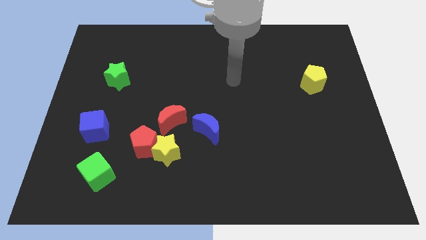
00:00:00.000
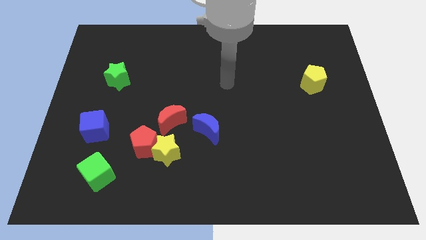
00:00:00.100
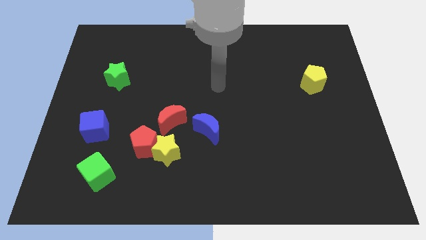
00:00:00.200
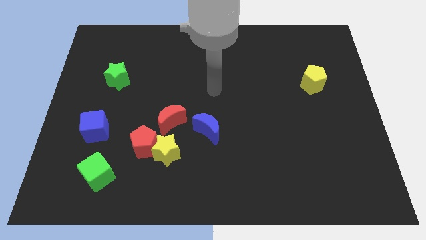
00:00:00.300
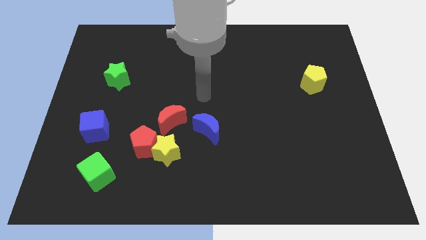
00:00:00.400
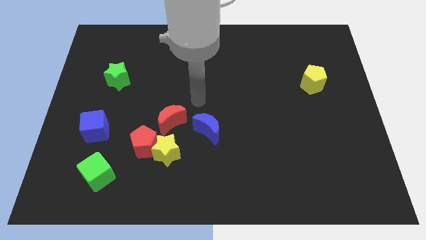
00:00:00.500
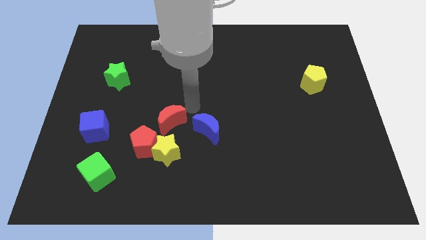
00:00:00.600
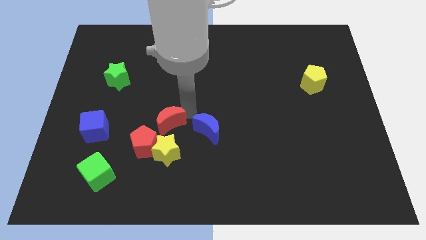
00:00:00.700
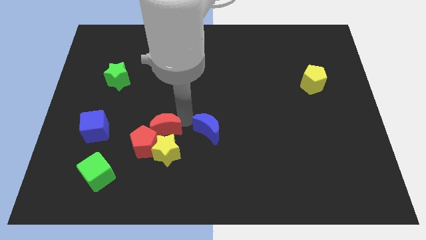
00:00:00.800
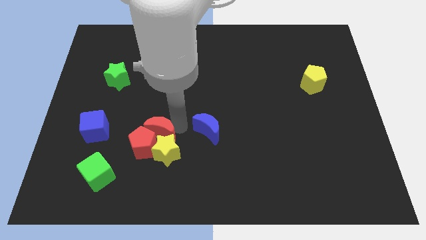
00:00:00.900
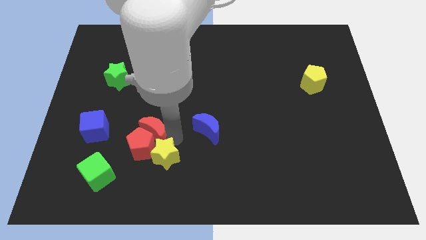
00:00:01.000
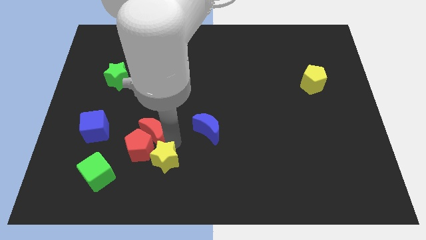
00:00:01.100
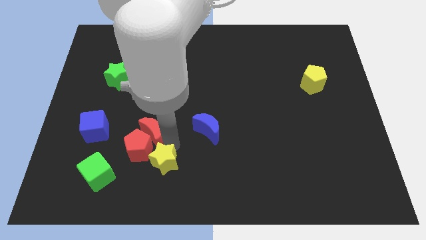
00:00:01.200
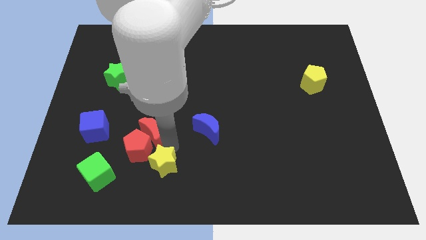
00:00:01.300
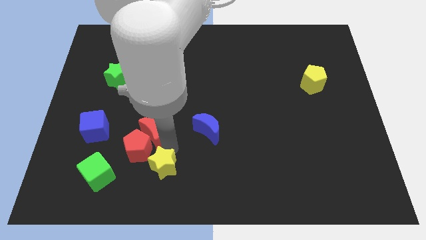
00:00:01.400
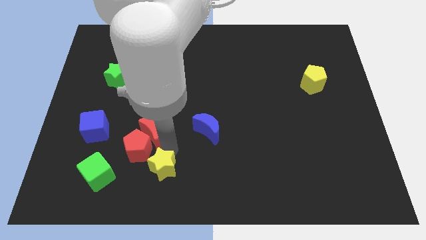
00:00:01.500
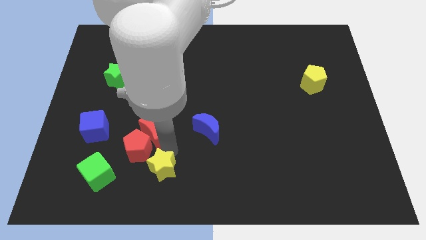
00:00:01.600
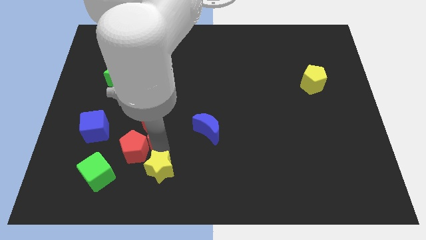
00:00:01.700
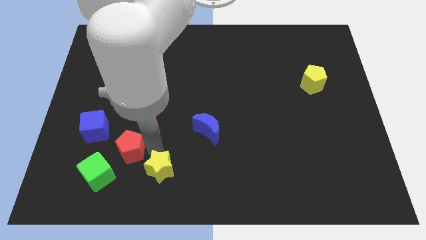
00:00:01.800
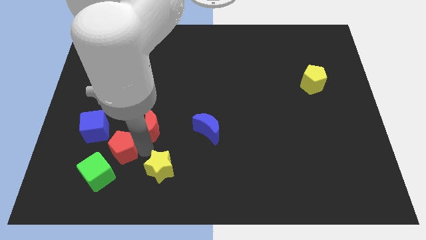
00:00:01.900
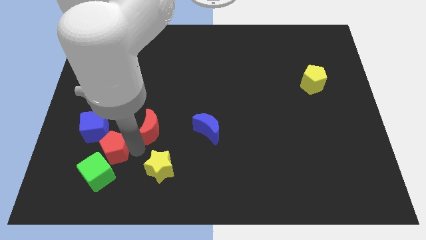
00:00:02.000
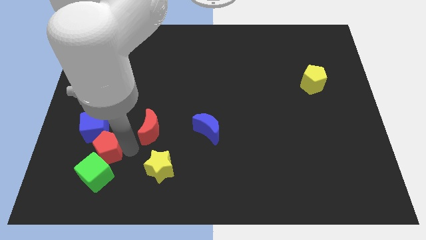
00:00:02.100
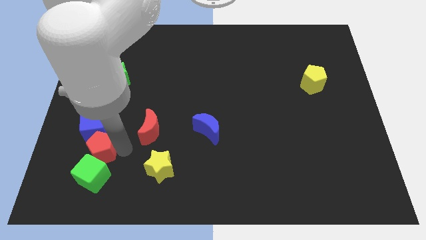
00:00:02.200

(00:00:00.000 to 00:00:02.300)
pull the red pentagon apart from the yellow star and red moon

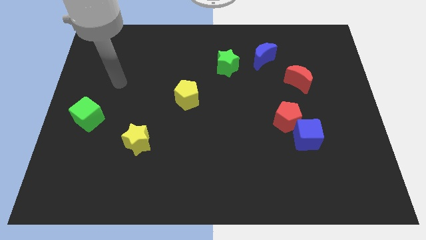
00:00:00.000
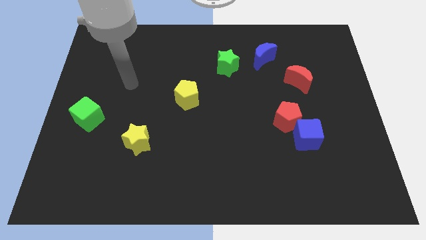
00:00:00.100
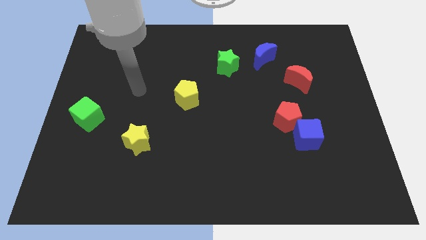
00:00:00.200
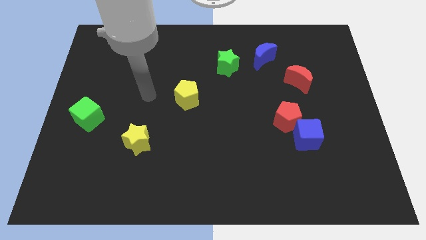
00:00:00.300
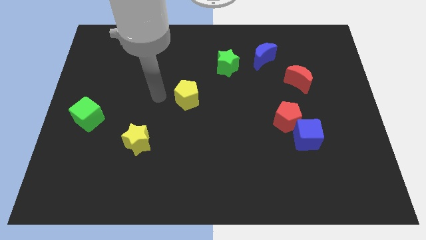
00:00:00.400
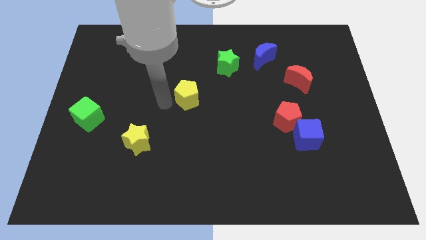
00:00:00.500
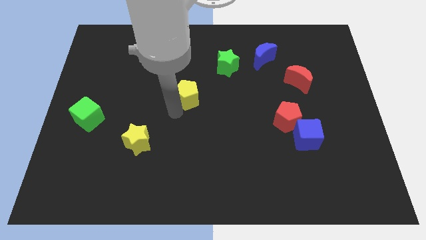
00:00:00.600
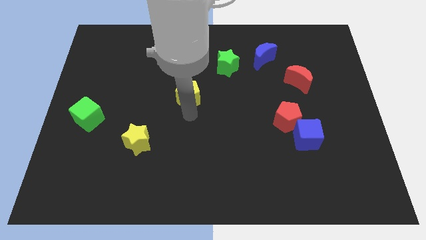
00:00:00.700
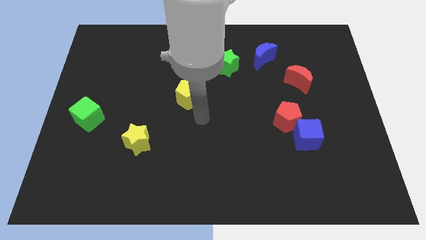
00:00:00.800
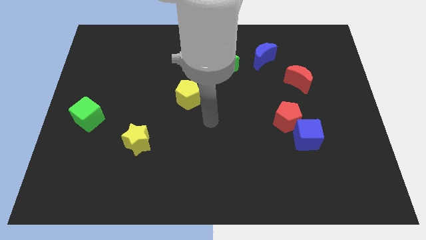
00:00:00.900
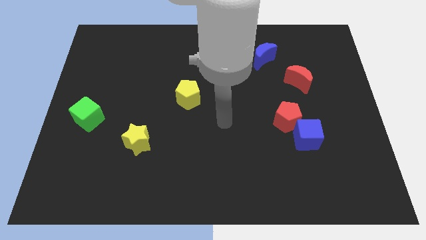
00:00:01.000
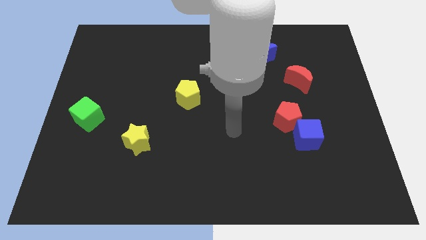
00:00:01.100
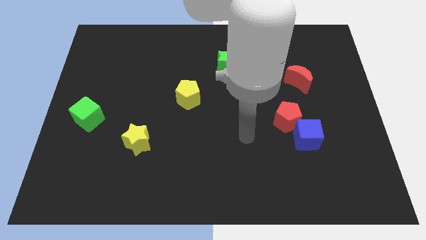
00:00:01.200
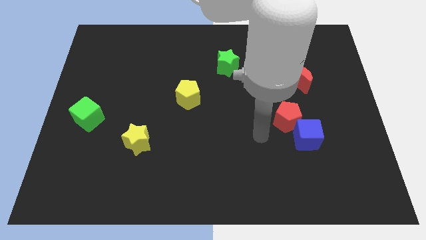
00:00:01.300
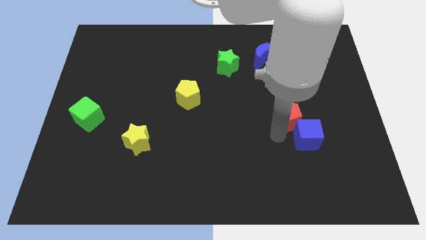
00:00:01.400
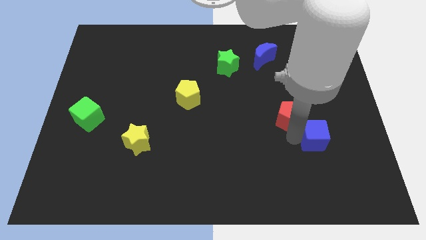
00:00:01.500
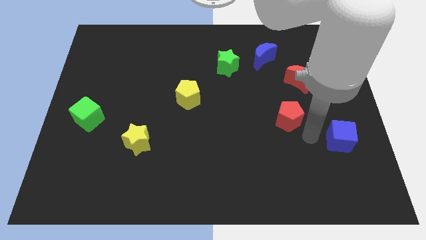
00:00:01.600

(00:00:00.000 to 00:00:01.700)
pull the red pentagon apart from the blue cube

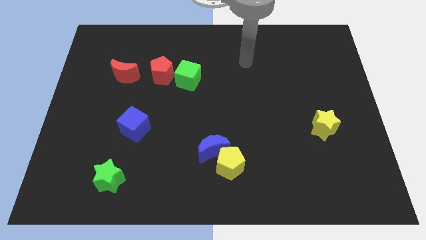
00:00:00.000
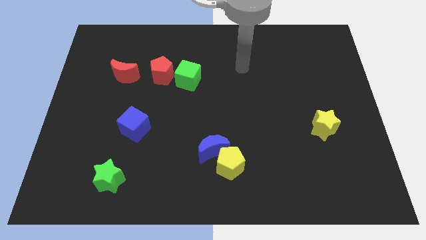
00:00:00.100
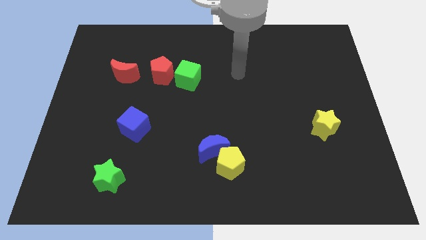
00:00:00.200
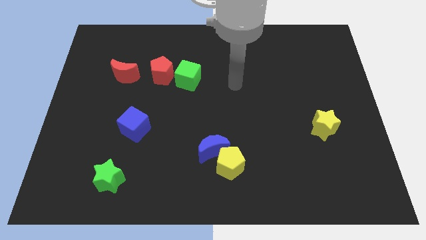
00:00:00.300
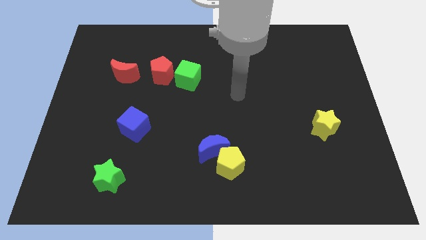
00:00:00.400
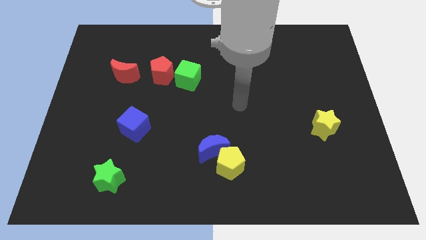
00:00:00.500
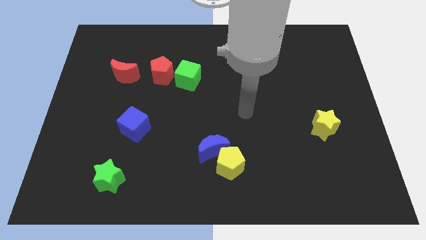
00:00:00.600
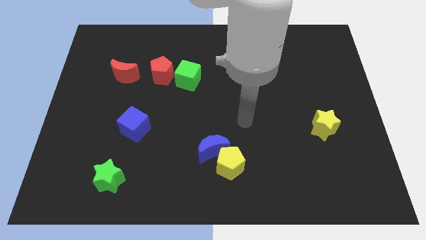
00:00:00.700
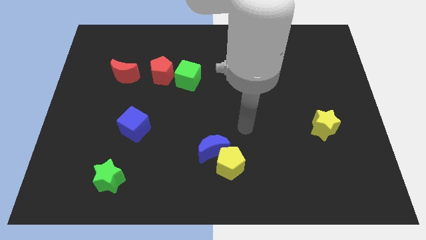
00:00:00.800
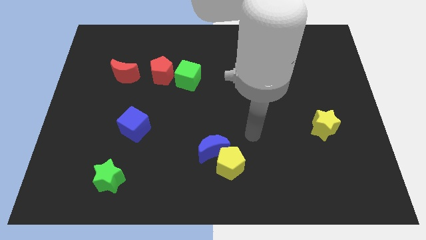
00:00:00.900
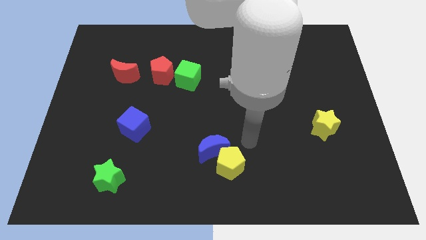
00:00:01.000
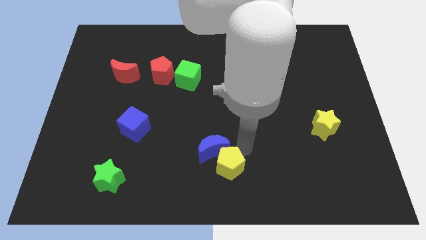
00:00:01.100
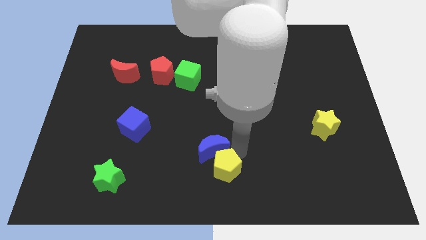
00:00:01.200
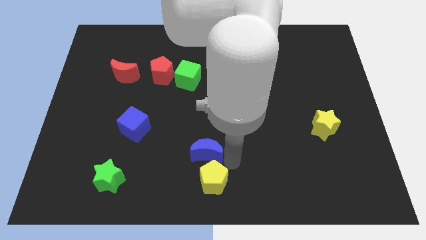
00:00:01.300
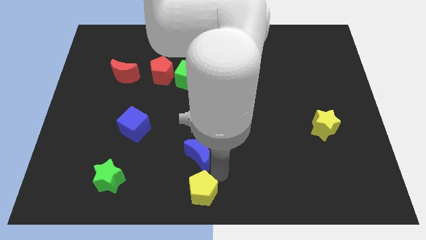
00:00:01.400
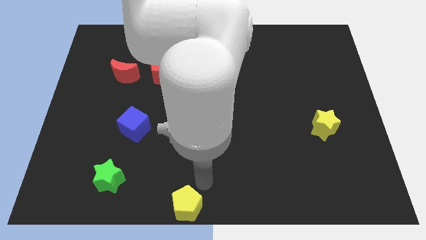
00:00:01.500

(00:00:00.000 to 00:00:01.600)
pull the blue moon apart from the yellow pentagon

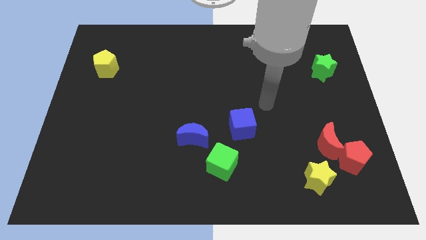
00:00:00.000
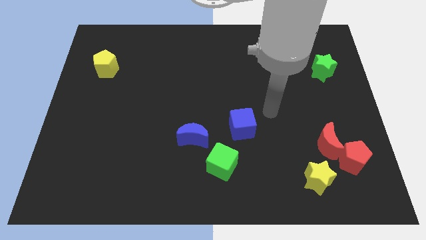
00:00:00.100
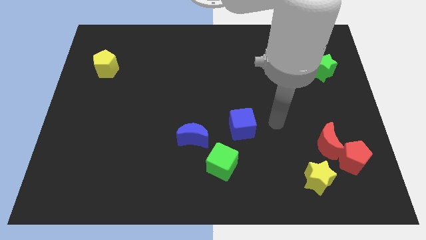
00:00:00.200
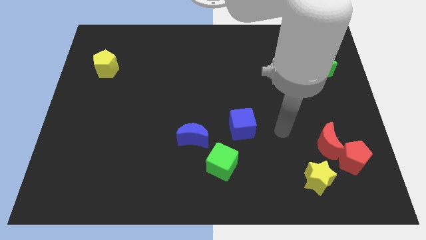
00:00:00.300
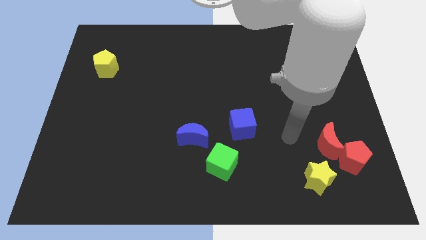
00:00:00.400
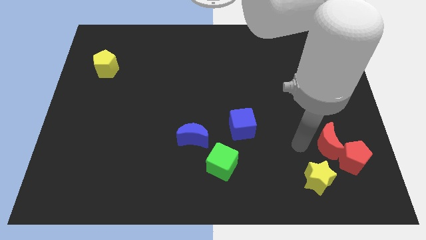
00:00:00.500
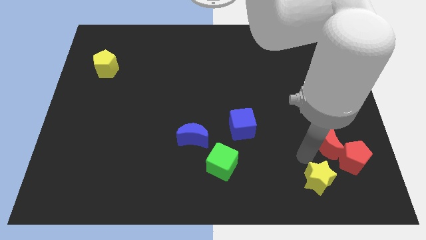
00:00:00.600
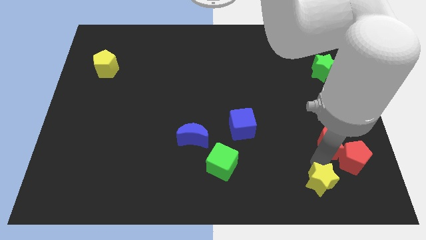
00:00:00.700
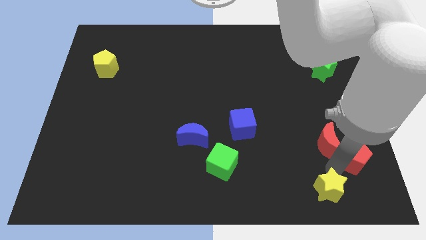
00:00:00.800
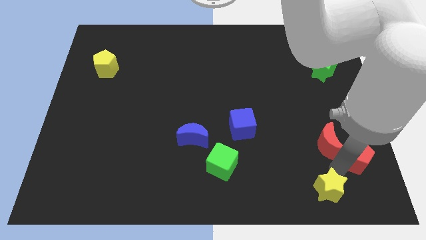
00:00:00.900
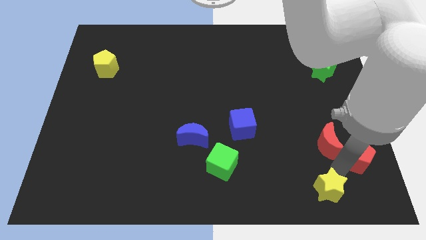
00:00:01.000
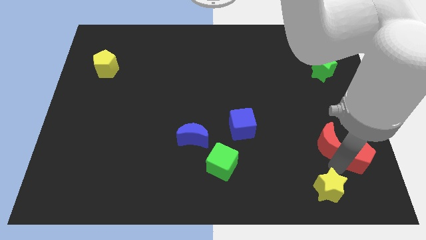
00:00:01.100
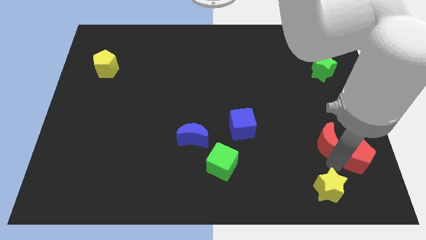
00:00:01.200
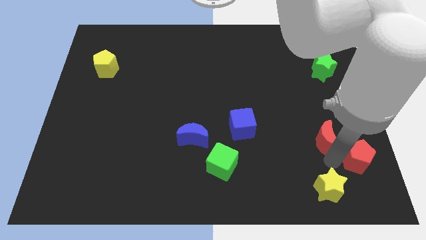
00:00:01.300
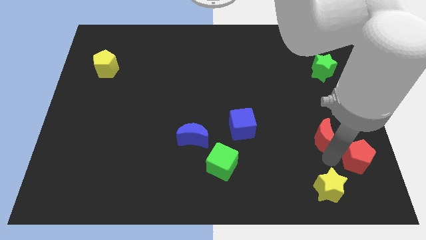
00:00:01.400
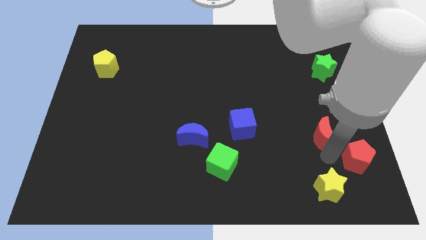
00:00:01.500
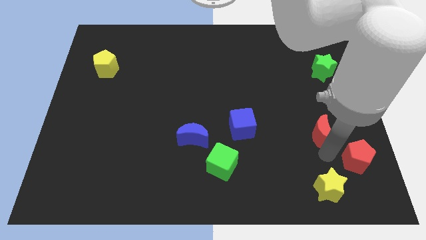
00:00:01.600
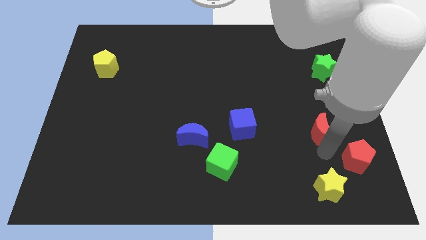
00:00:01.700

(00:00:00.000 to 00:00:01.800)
move the red moon away from the red pentagon and yellow star

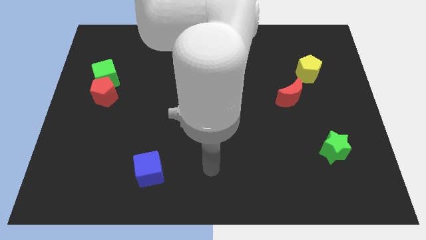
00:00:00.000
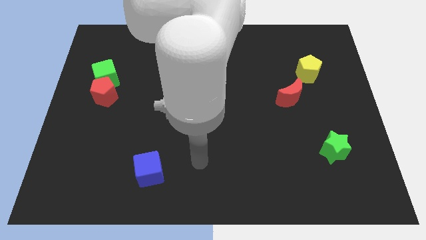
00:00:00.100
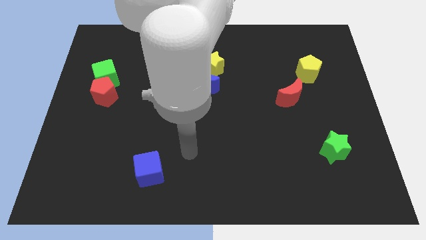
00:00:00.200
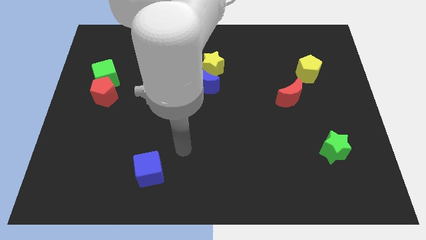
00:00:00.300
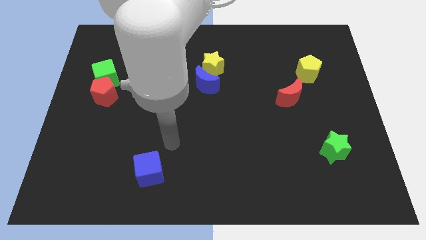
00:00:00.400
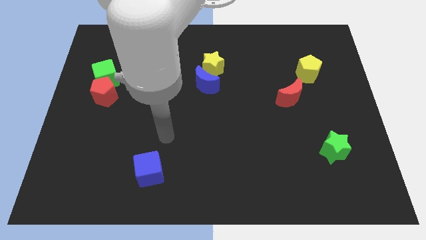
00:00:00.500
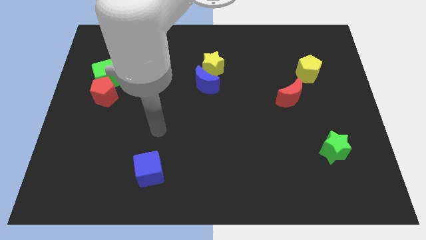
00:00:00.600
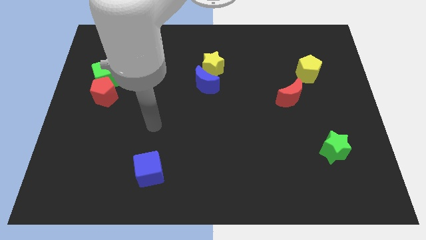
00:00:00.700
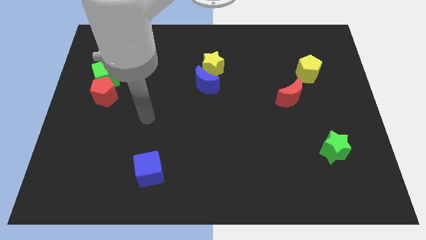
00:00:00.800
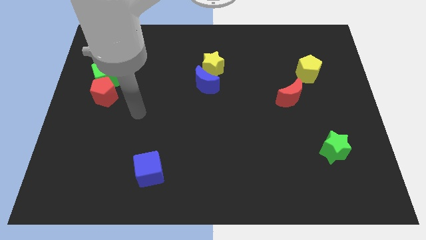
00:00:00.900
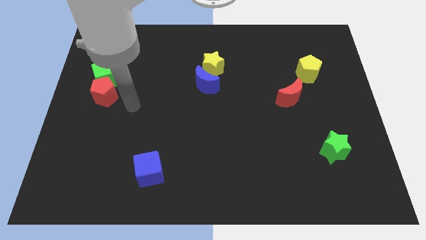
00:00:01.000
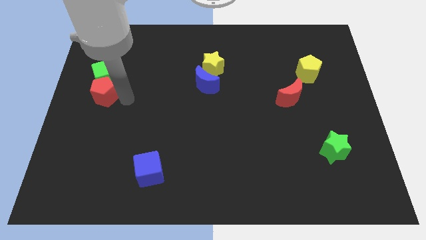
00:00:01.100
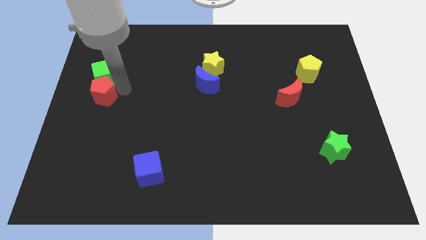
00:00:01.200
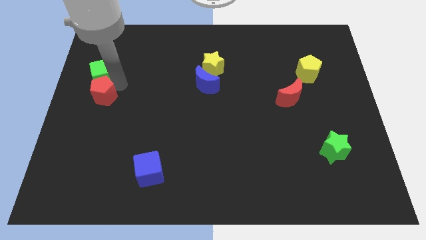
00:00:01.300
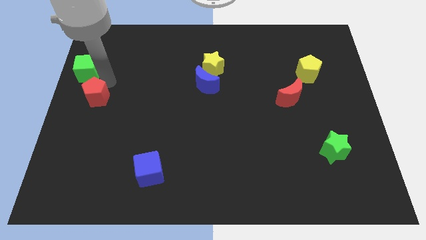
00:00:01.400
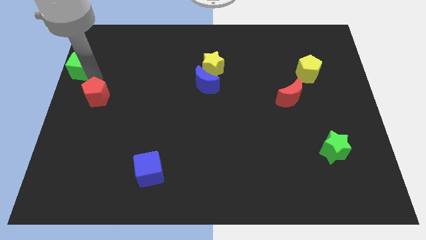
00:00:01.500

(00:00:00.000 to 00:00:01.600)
separate the red pentagon from the green cube

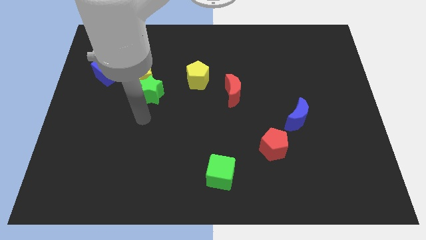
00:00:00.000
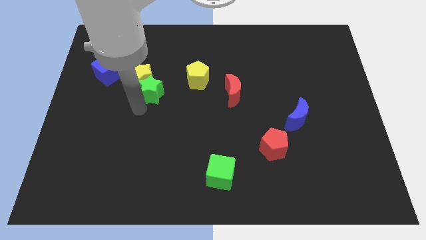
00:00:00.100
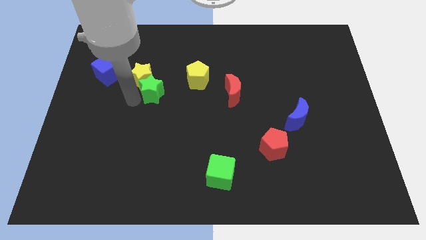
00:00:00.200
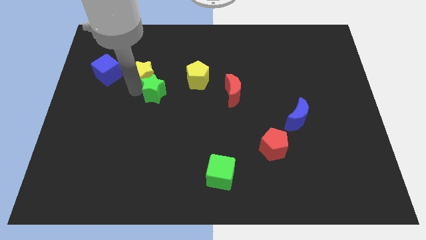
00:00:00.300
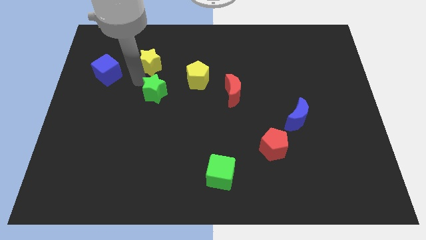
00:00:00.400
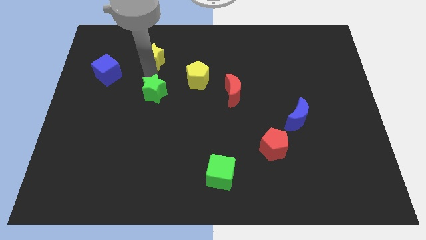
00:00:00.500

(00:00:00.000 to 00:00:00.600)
separate the green star from the yellow star
